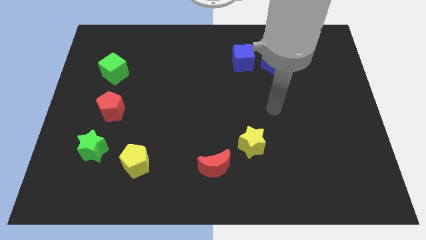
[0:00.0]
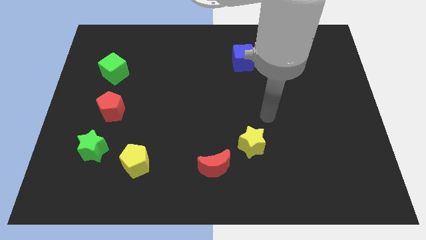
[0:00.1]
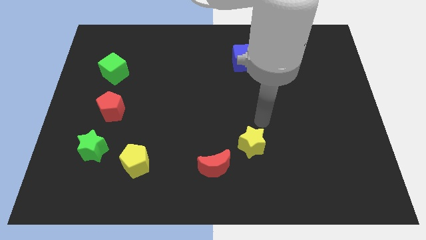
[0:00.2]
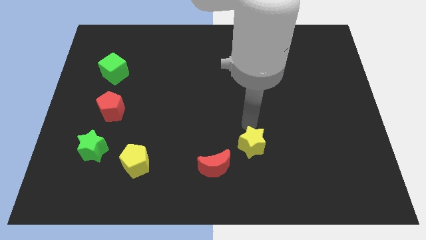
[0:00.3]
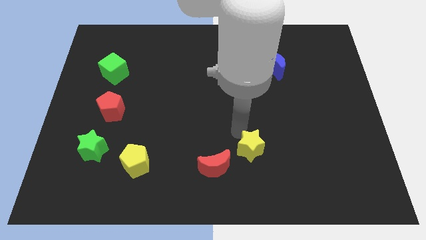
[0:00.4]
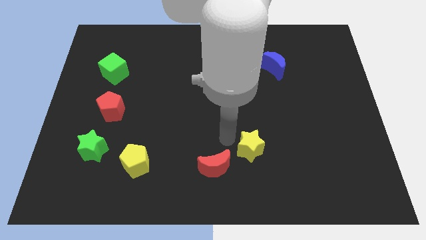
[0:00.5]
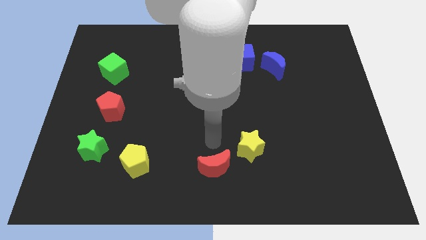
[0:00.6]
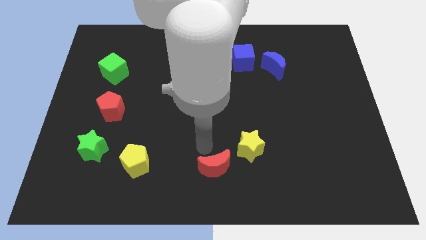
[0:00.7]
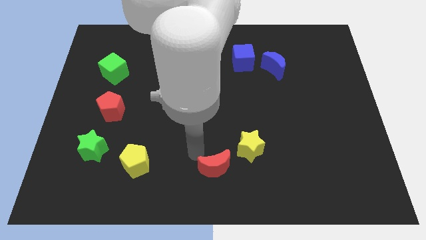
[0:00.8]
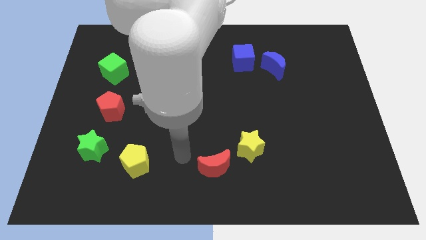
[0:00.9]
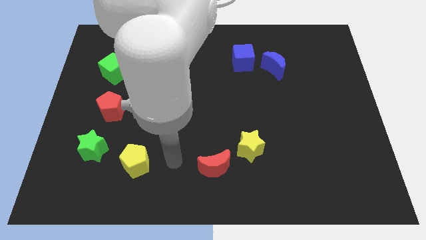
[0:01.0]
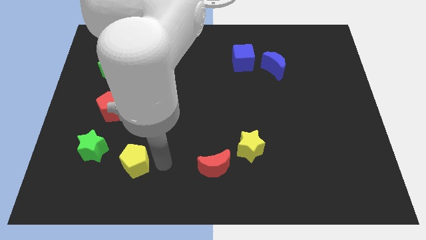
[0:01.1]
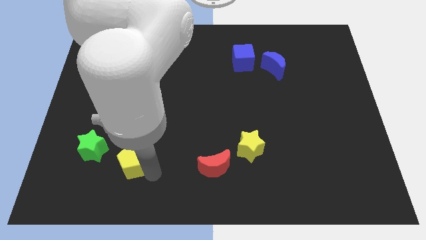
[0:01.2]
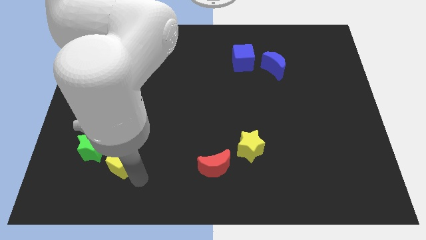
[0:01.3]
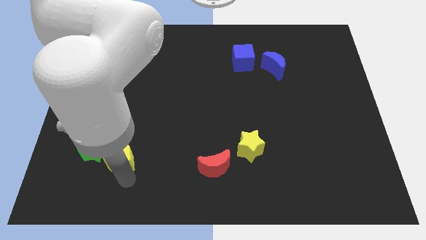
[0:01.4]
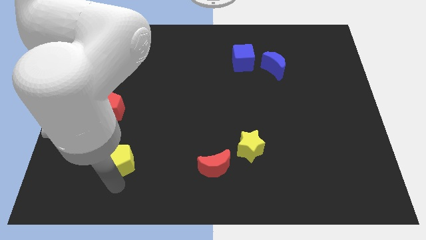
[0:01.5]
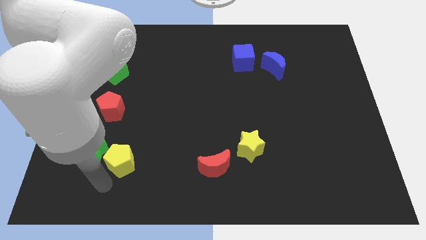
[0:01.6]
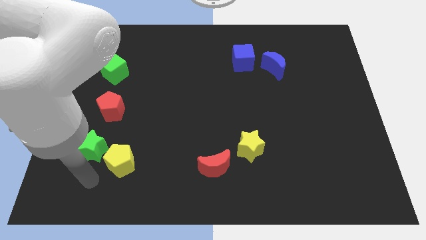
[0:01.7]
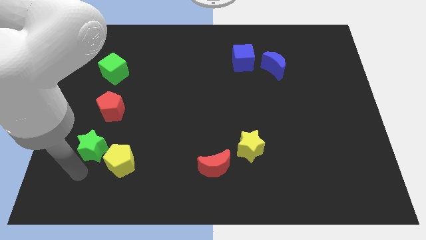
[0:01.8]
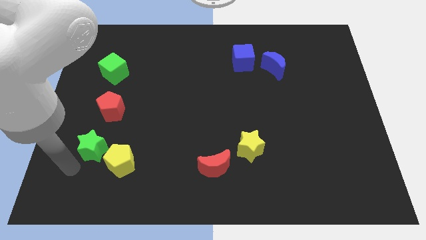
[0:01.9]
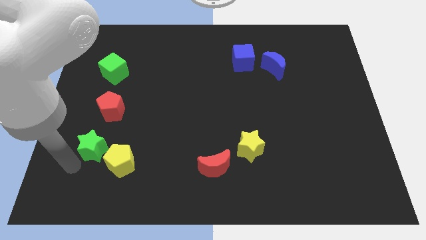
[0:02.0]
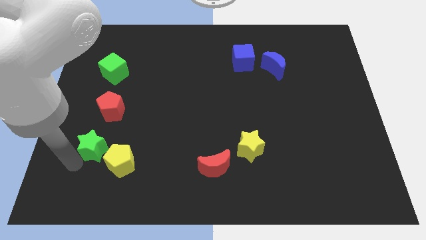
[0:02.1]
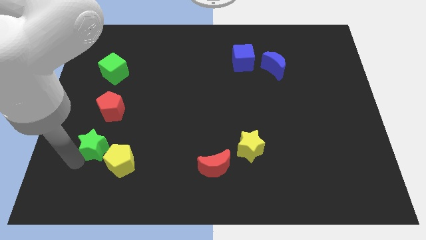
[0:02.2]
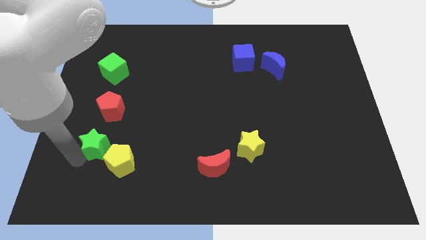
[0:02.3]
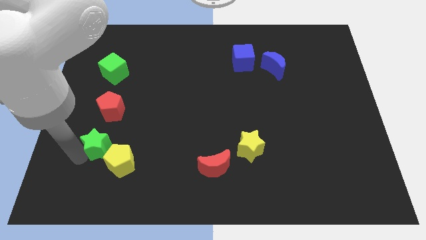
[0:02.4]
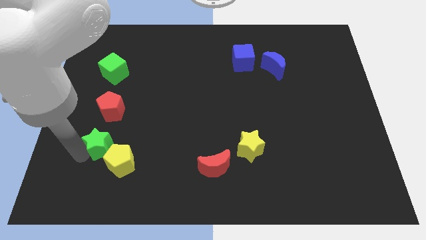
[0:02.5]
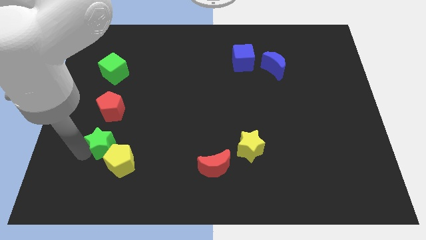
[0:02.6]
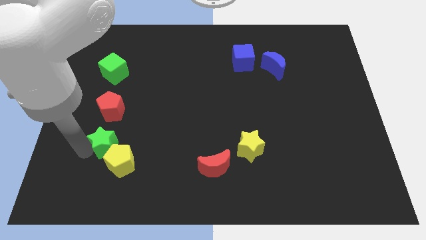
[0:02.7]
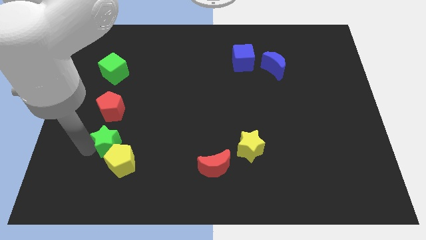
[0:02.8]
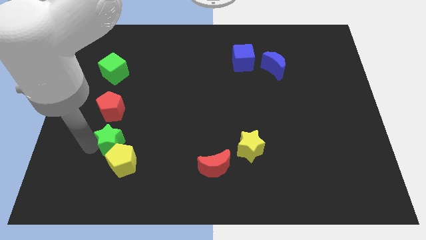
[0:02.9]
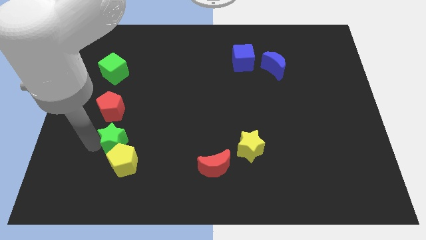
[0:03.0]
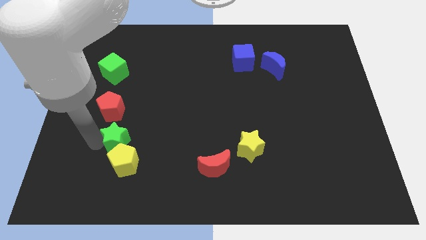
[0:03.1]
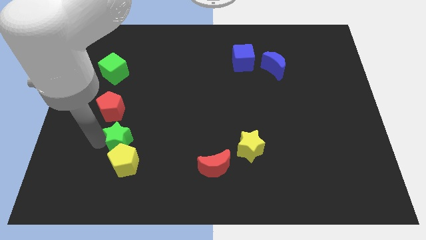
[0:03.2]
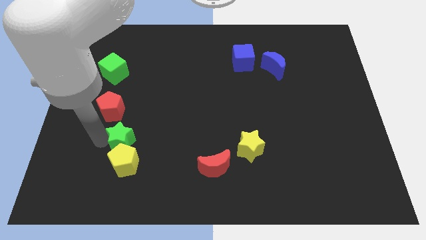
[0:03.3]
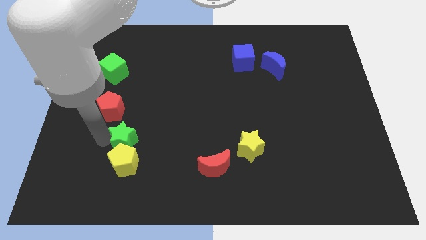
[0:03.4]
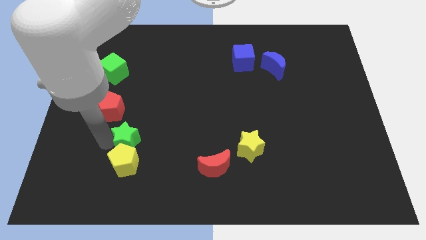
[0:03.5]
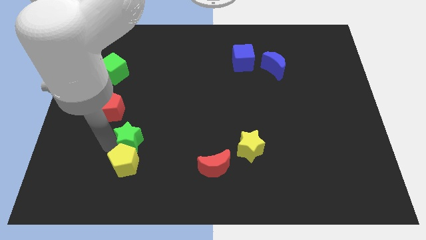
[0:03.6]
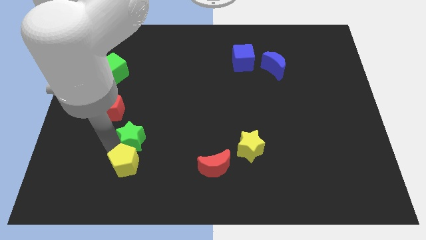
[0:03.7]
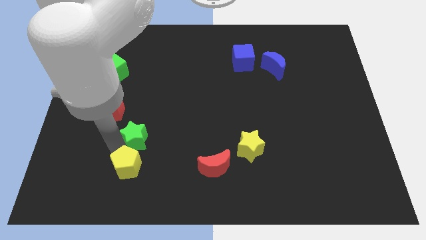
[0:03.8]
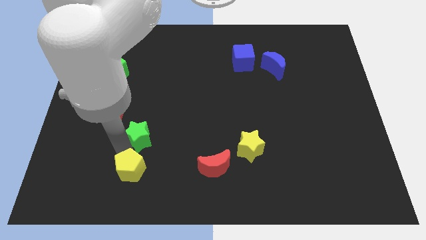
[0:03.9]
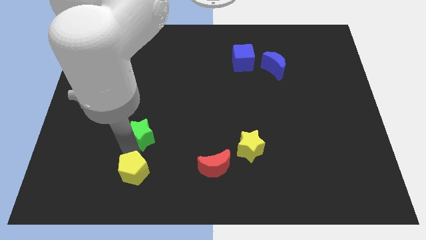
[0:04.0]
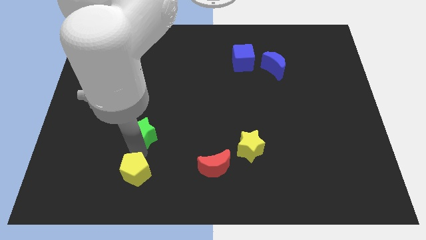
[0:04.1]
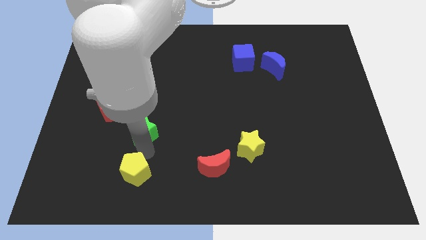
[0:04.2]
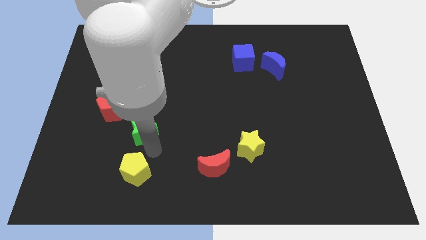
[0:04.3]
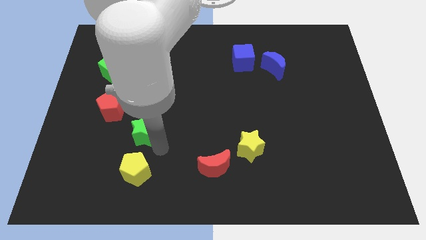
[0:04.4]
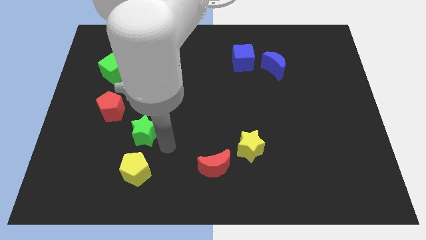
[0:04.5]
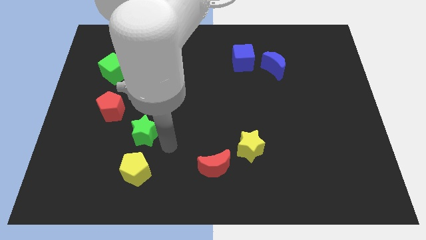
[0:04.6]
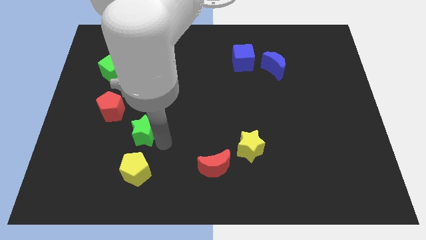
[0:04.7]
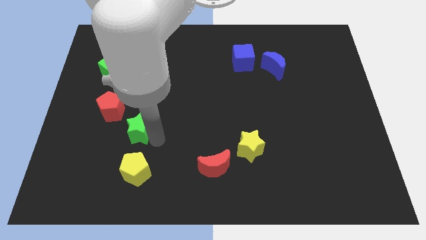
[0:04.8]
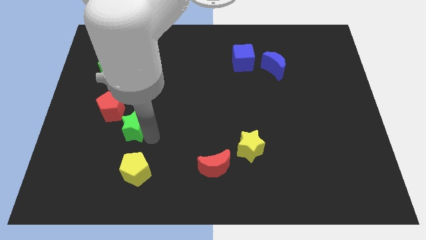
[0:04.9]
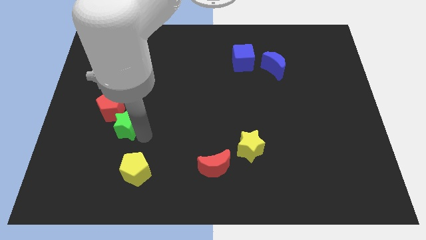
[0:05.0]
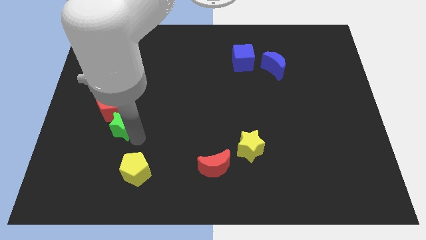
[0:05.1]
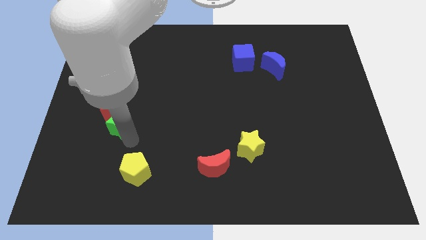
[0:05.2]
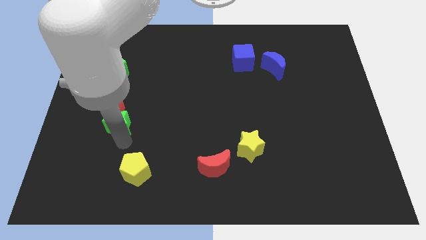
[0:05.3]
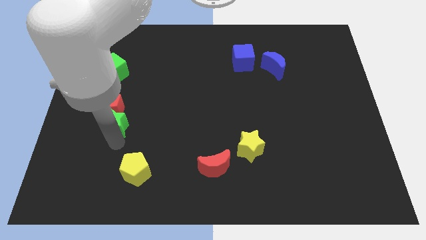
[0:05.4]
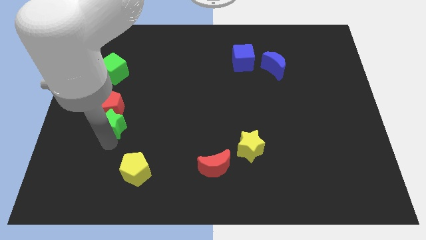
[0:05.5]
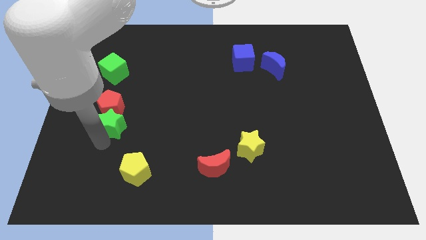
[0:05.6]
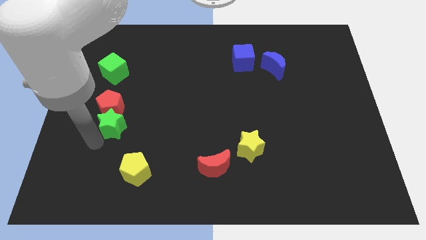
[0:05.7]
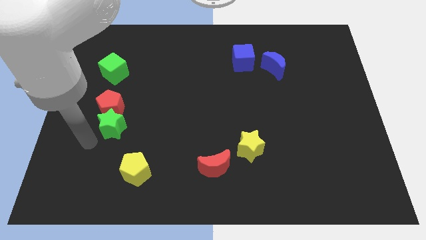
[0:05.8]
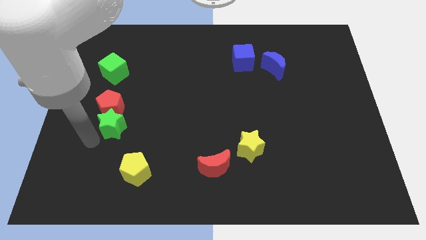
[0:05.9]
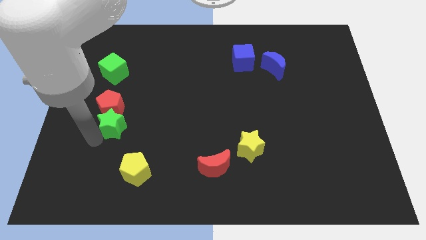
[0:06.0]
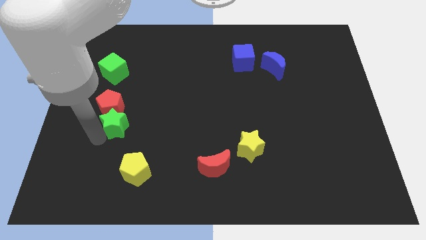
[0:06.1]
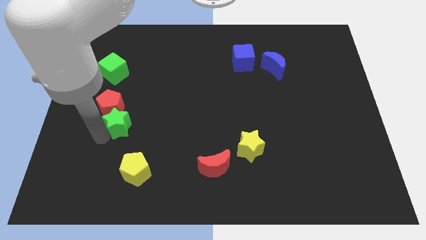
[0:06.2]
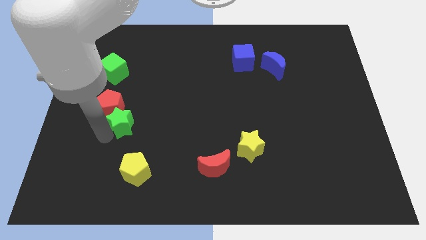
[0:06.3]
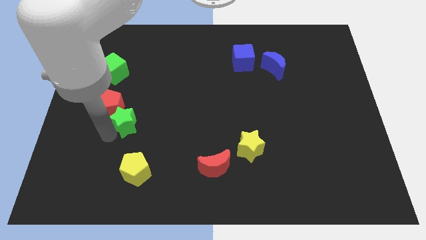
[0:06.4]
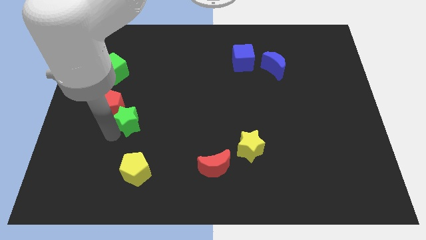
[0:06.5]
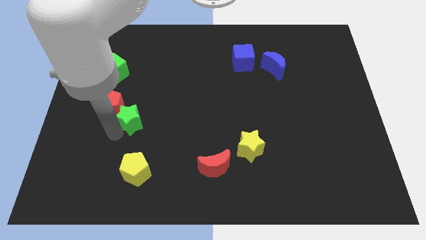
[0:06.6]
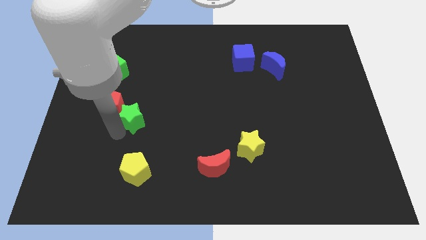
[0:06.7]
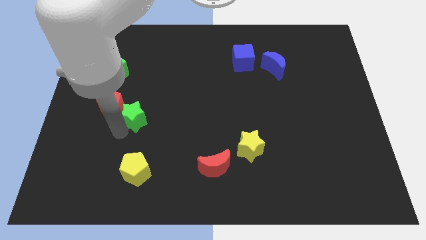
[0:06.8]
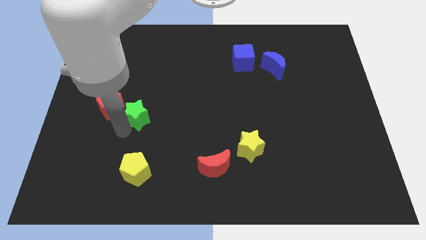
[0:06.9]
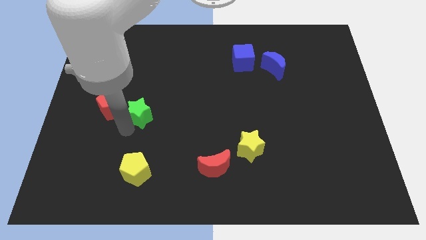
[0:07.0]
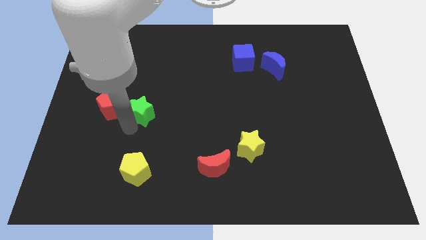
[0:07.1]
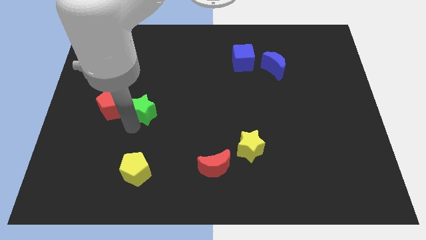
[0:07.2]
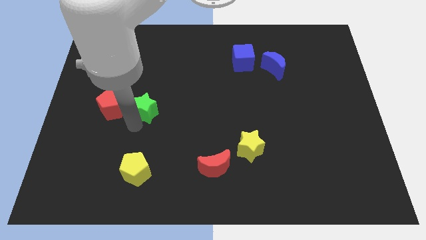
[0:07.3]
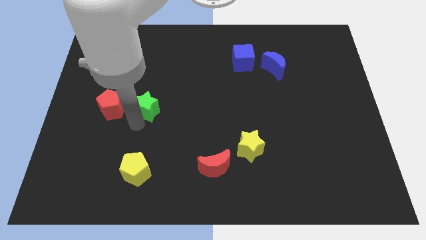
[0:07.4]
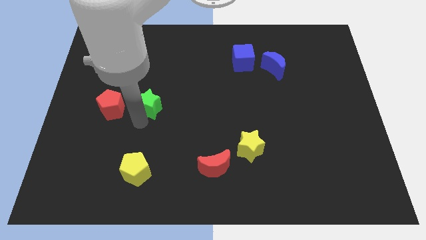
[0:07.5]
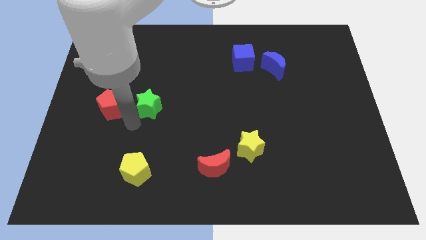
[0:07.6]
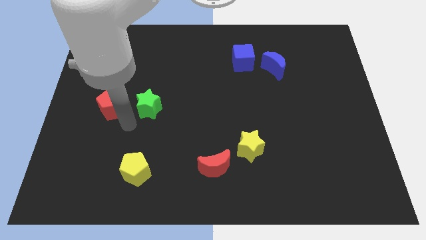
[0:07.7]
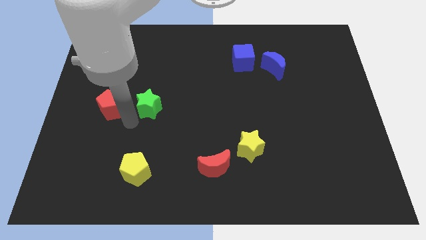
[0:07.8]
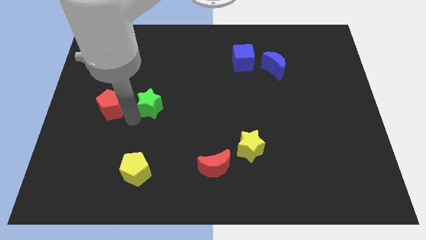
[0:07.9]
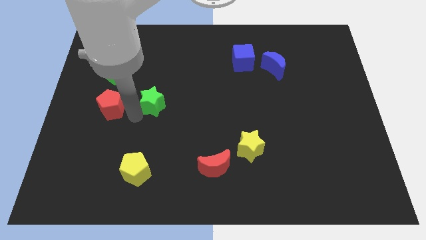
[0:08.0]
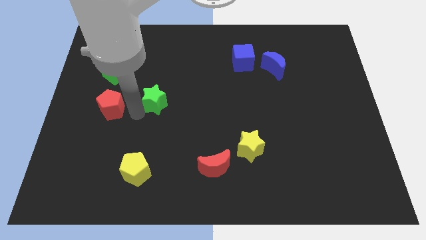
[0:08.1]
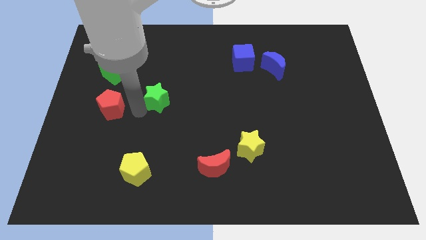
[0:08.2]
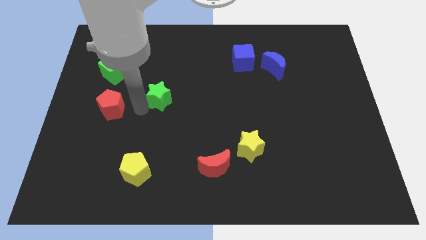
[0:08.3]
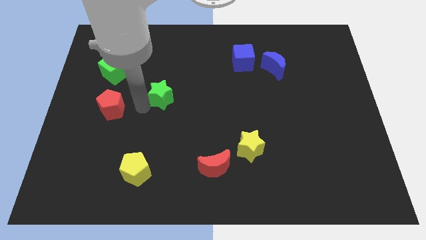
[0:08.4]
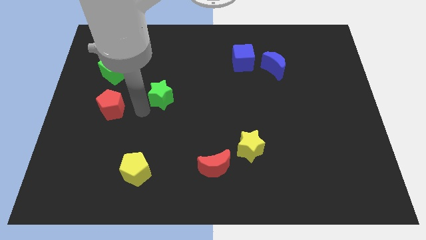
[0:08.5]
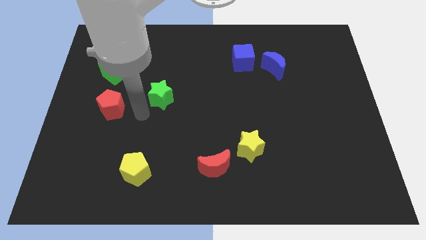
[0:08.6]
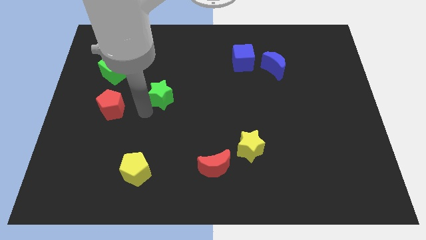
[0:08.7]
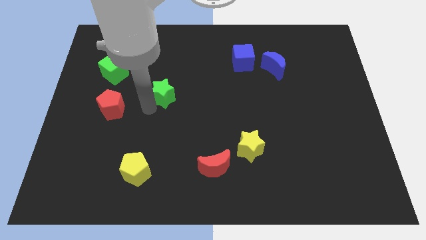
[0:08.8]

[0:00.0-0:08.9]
slide the green star up and right diagonally
